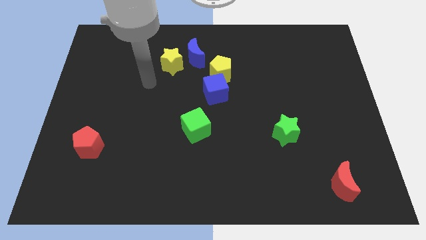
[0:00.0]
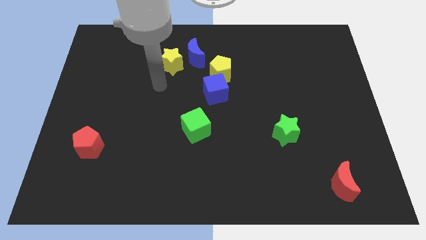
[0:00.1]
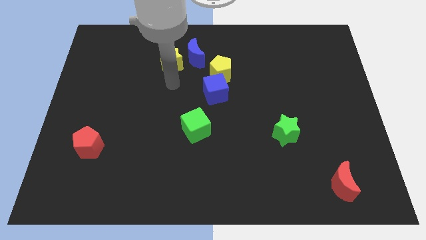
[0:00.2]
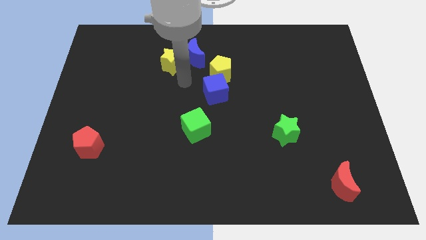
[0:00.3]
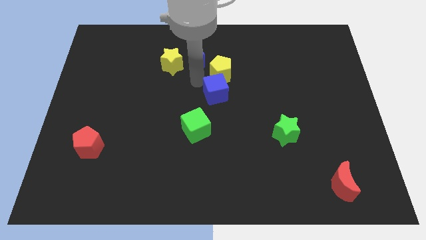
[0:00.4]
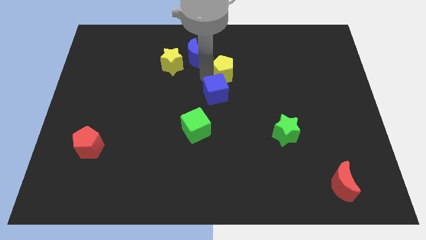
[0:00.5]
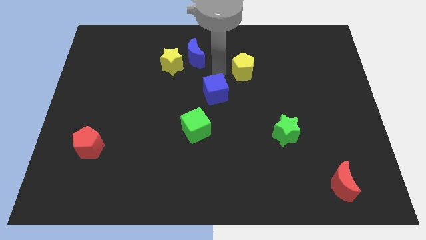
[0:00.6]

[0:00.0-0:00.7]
pull the blue cube apart from the yellow pentagon

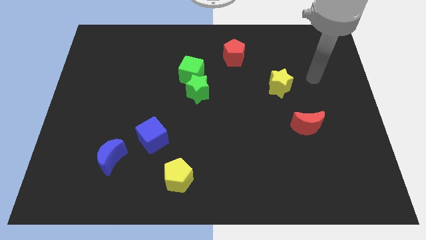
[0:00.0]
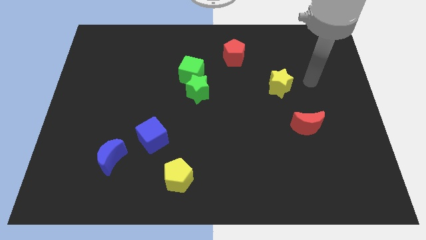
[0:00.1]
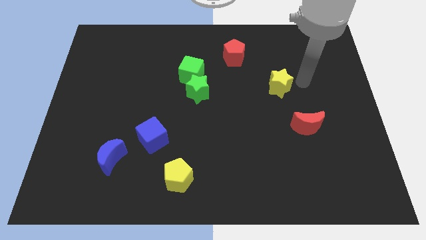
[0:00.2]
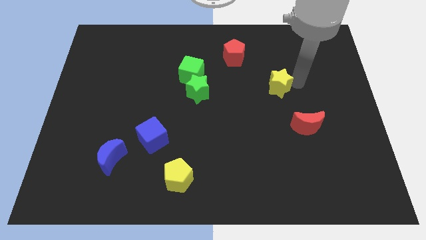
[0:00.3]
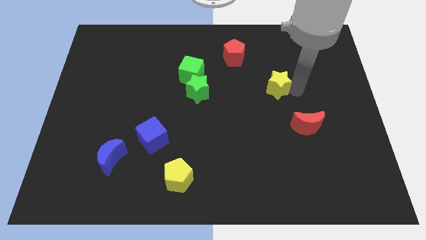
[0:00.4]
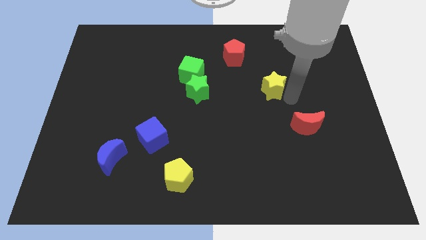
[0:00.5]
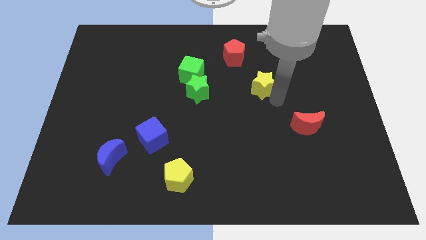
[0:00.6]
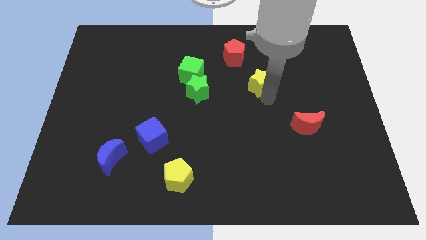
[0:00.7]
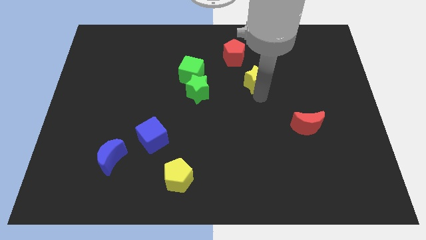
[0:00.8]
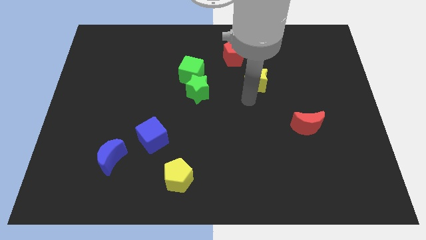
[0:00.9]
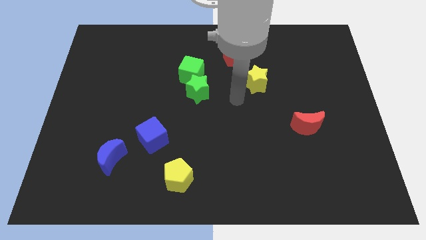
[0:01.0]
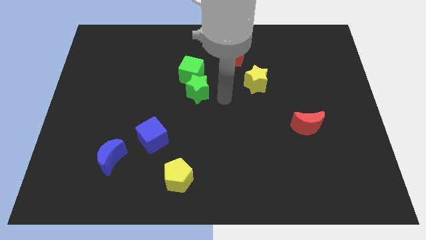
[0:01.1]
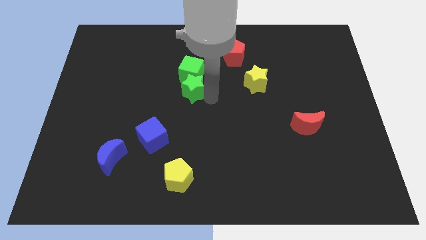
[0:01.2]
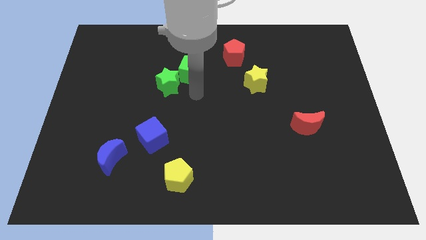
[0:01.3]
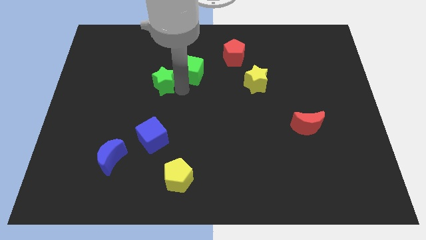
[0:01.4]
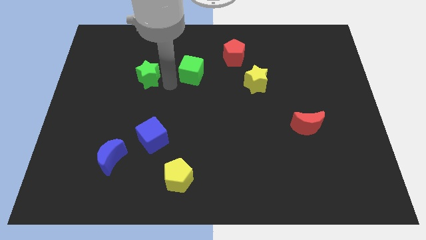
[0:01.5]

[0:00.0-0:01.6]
pull the green cube apart from the green star

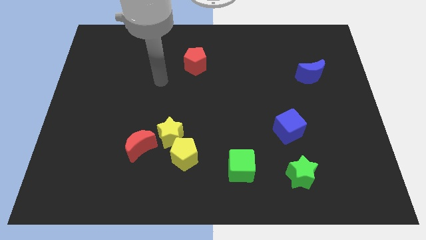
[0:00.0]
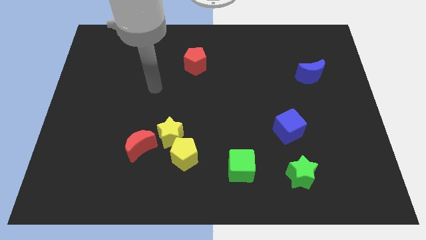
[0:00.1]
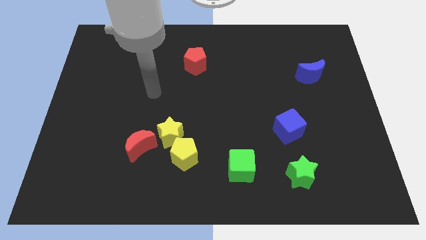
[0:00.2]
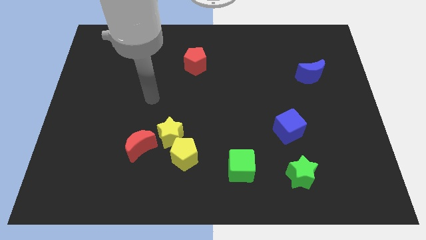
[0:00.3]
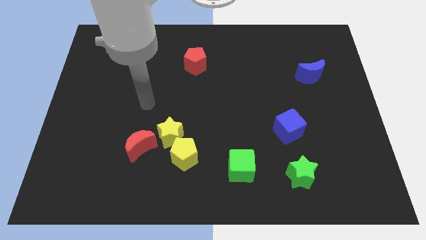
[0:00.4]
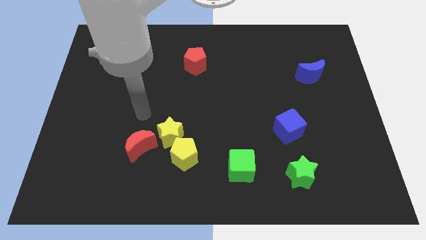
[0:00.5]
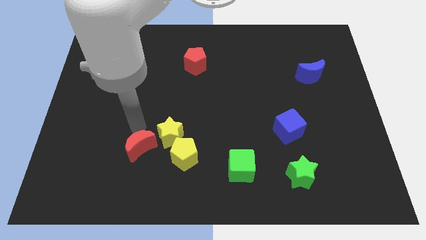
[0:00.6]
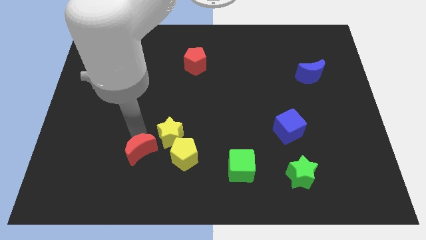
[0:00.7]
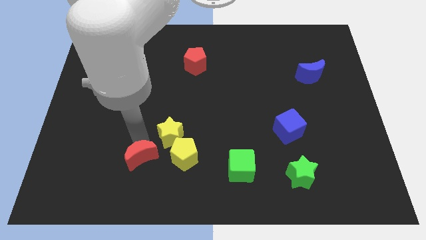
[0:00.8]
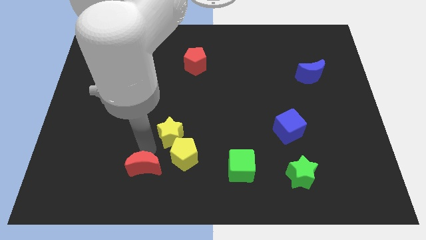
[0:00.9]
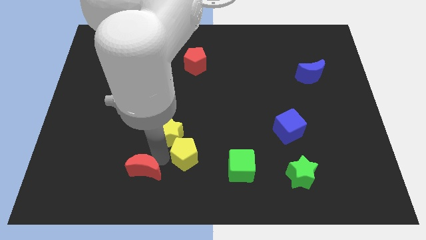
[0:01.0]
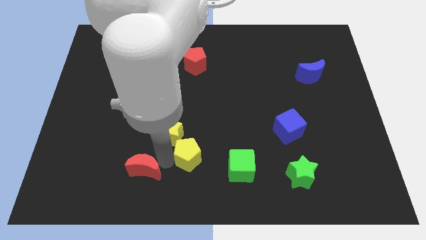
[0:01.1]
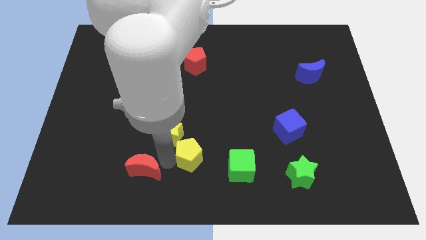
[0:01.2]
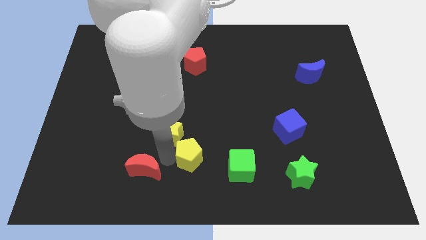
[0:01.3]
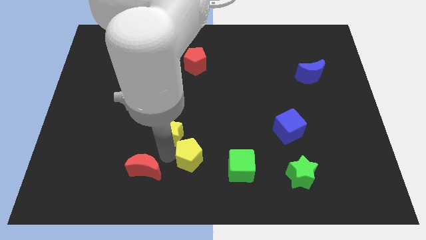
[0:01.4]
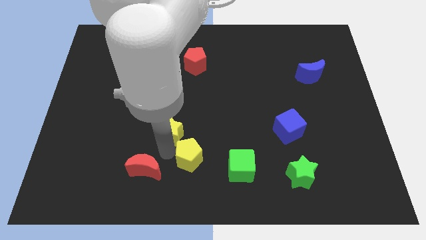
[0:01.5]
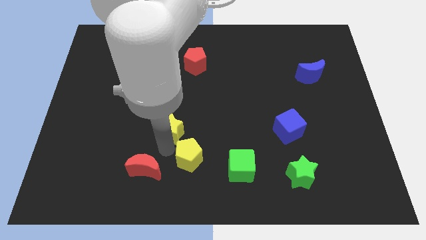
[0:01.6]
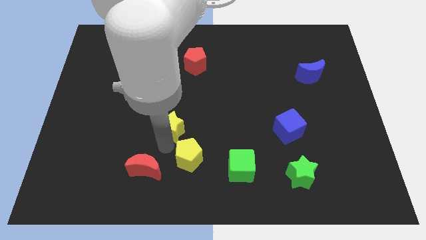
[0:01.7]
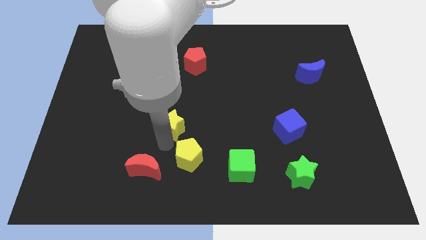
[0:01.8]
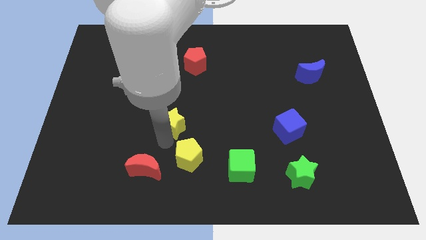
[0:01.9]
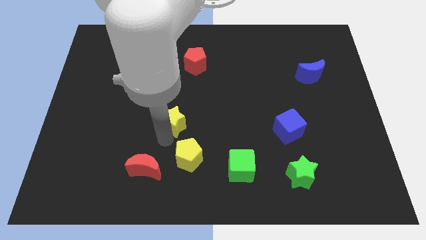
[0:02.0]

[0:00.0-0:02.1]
pull the yellow star apart from the yellow pentagon and red moon

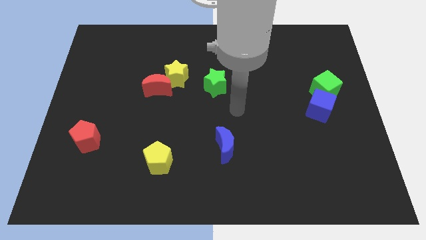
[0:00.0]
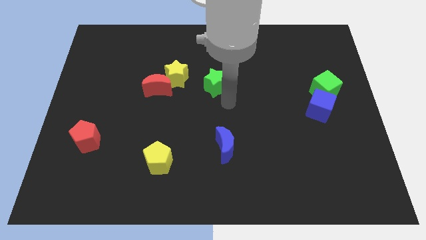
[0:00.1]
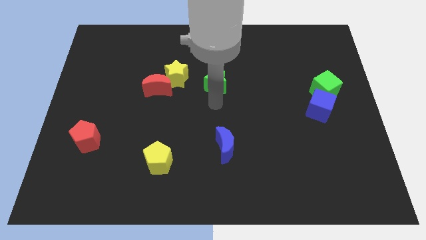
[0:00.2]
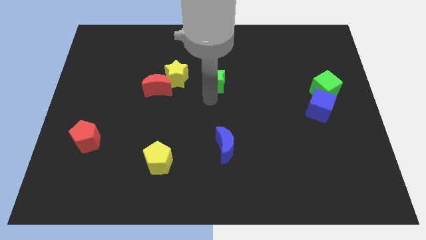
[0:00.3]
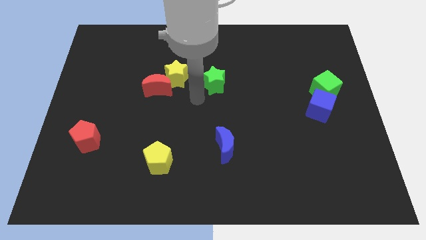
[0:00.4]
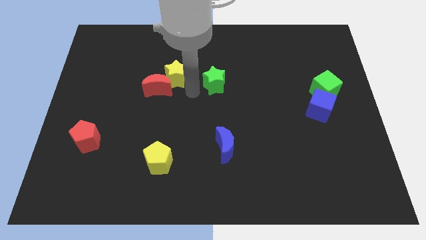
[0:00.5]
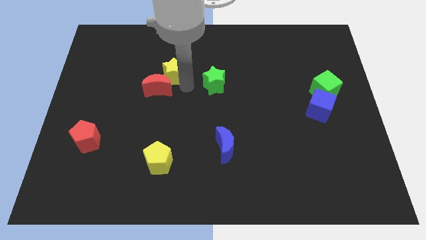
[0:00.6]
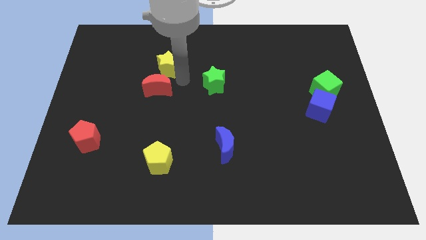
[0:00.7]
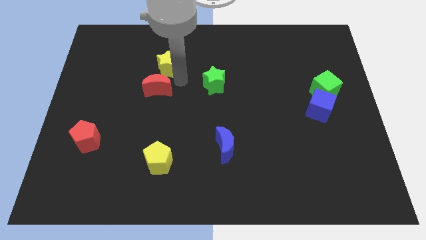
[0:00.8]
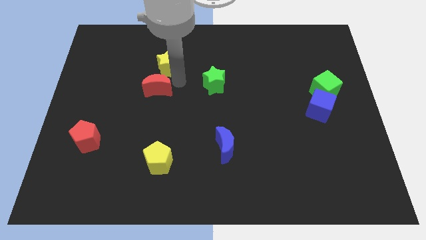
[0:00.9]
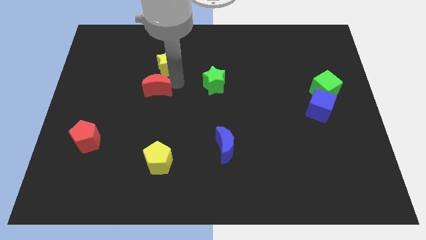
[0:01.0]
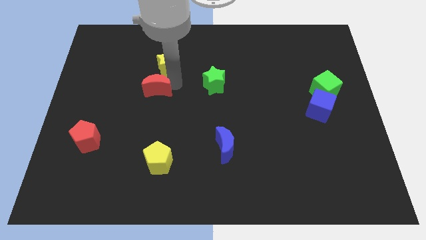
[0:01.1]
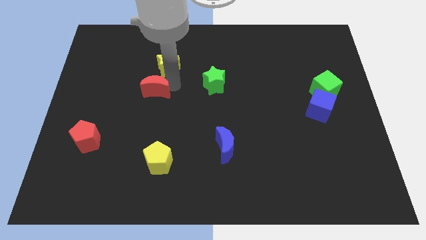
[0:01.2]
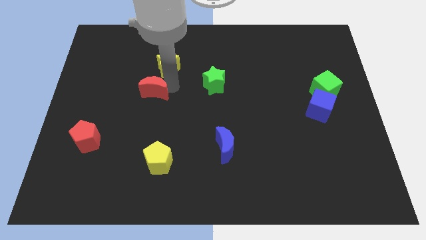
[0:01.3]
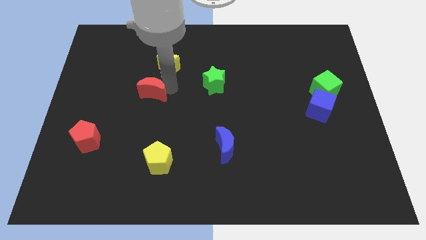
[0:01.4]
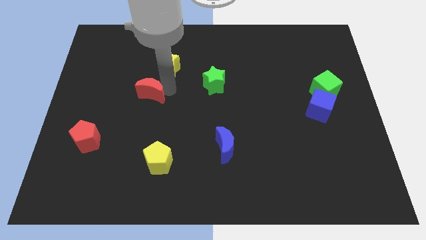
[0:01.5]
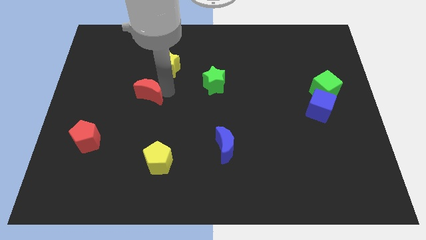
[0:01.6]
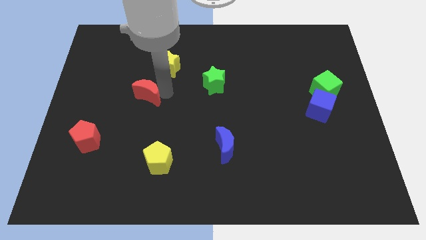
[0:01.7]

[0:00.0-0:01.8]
pull the red moon apart from the yellow star

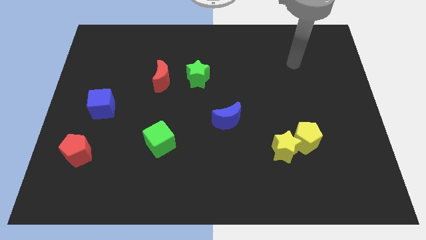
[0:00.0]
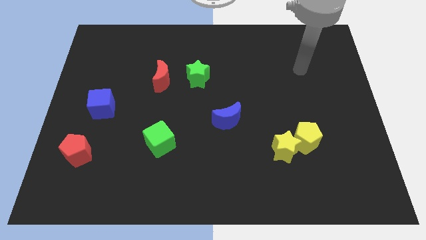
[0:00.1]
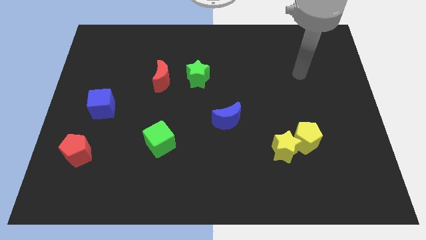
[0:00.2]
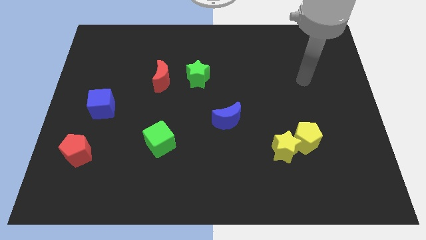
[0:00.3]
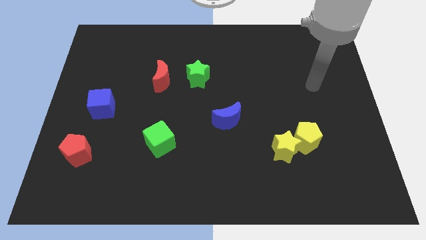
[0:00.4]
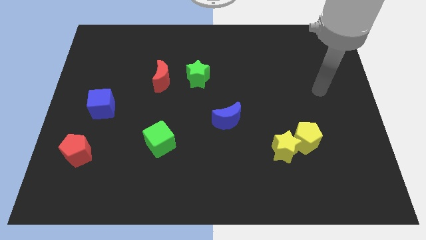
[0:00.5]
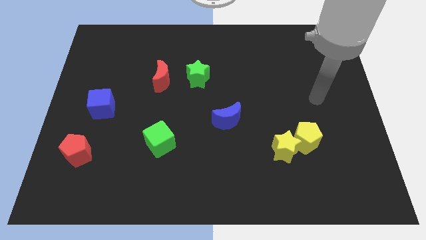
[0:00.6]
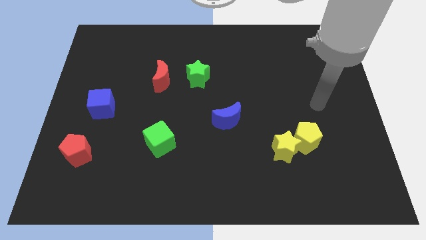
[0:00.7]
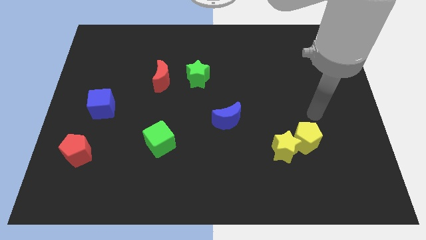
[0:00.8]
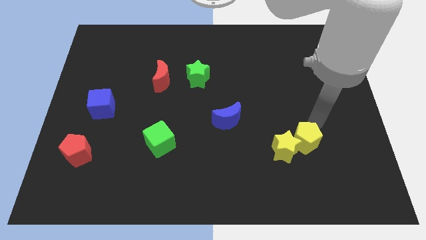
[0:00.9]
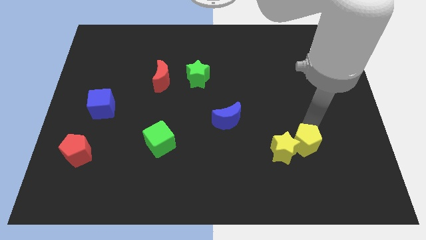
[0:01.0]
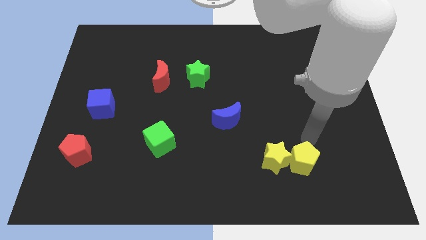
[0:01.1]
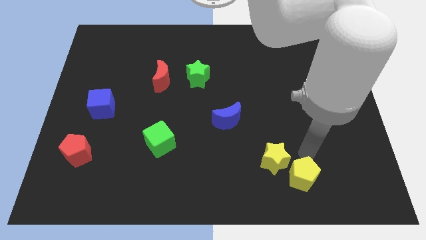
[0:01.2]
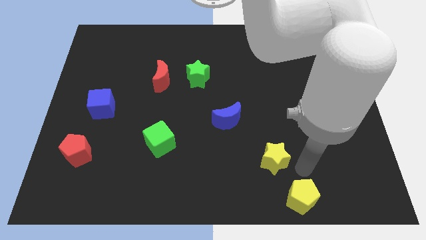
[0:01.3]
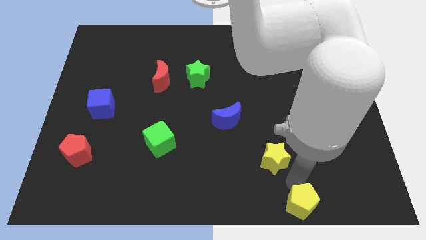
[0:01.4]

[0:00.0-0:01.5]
separate the yellow star from the yellow pentagon

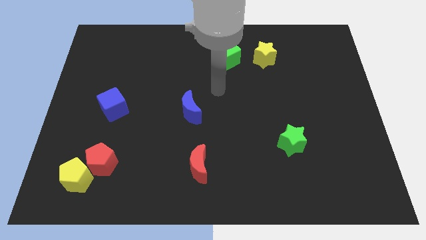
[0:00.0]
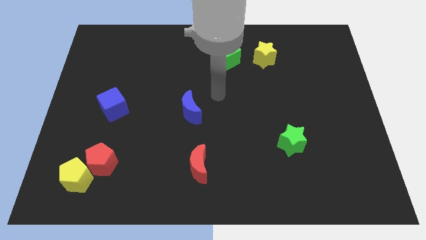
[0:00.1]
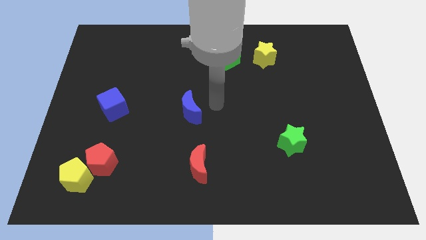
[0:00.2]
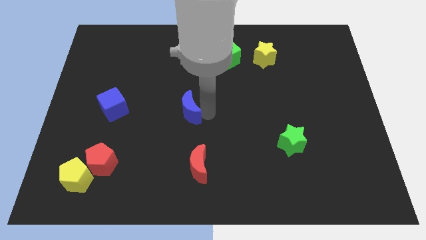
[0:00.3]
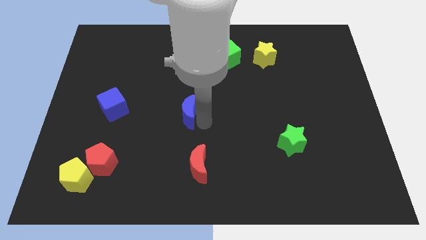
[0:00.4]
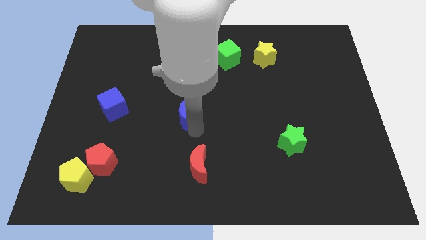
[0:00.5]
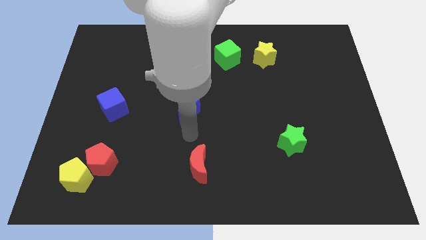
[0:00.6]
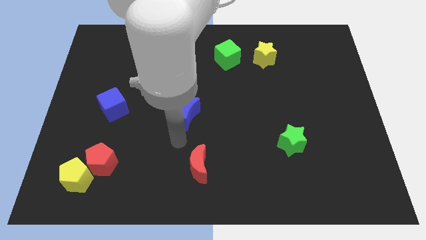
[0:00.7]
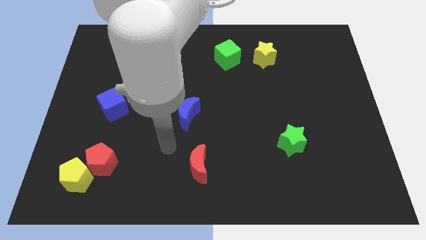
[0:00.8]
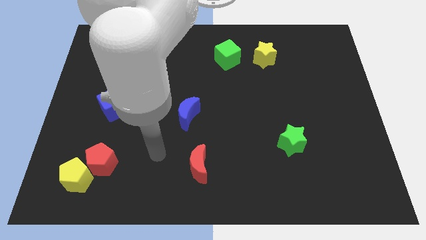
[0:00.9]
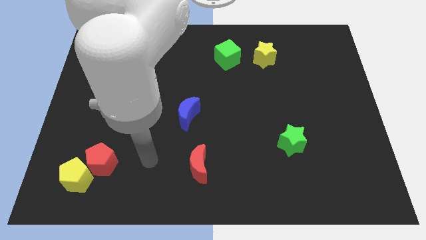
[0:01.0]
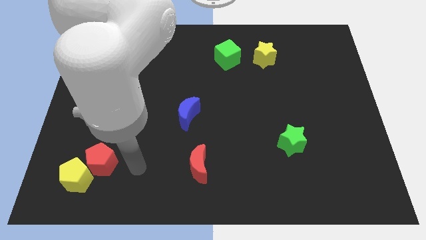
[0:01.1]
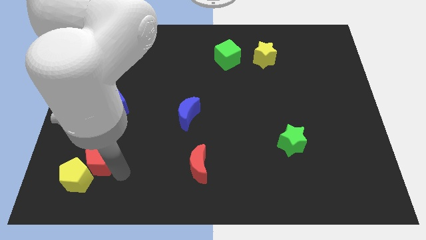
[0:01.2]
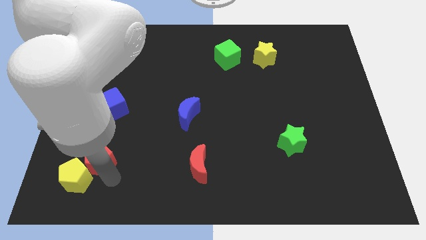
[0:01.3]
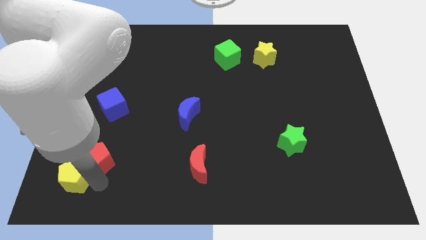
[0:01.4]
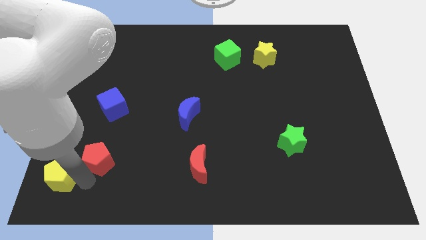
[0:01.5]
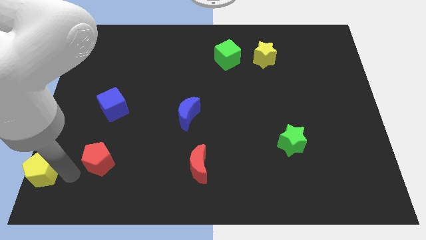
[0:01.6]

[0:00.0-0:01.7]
separate the red pentagon from the yellow pentagon
